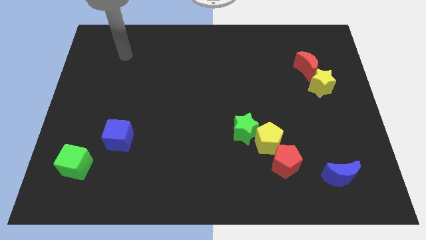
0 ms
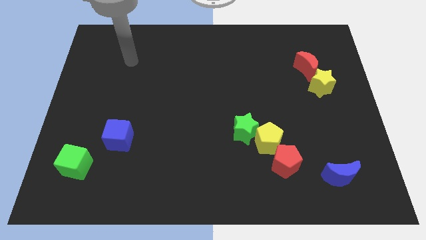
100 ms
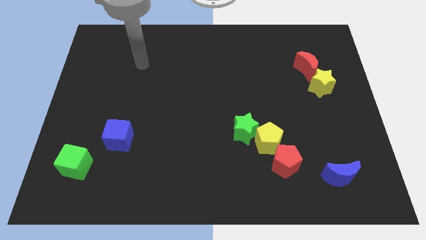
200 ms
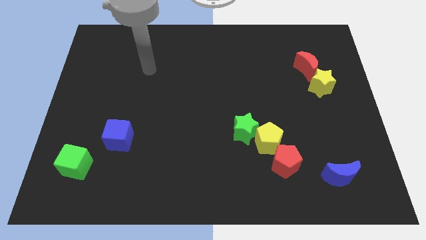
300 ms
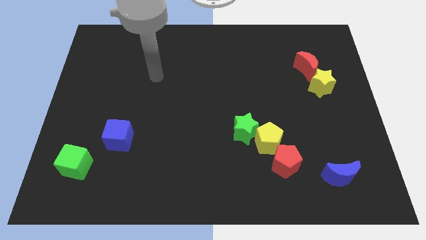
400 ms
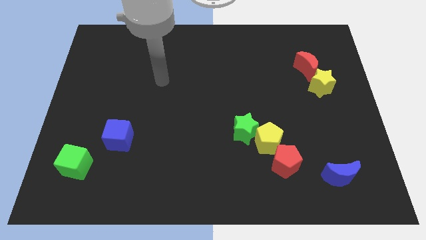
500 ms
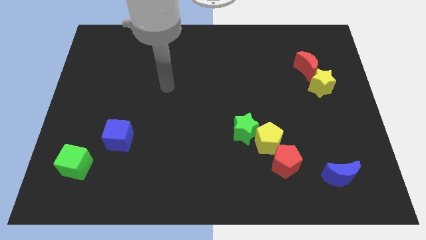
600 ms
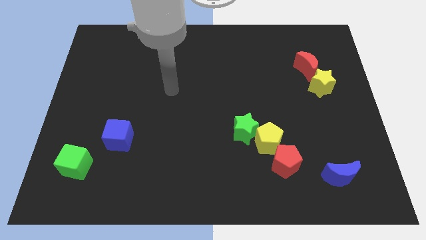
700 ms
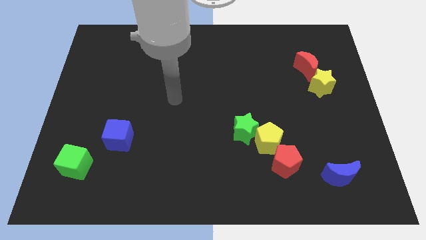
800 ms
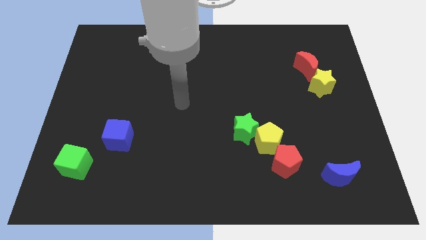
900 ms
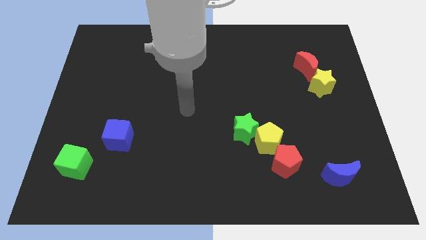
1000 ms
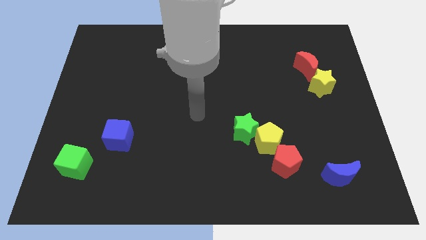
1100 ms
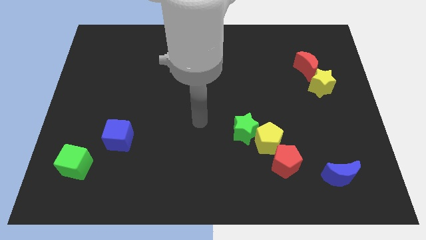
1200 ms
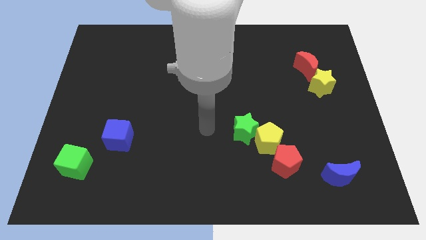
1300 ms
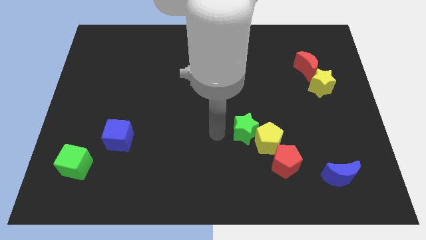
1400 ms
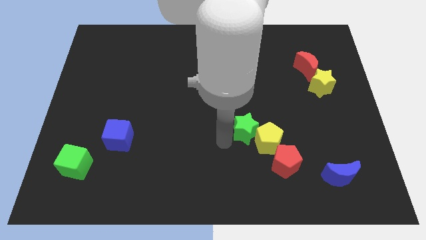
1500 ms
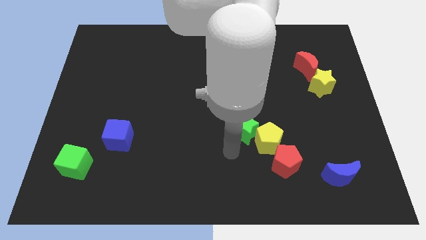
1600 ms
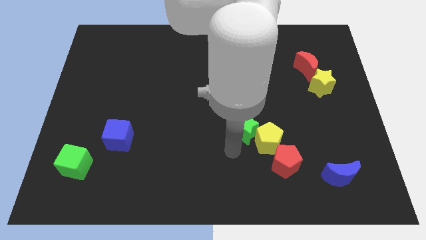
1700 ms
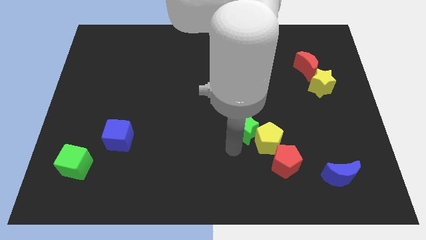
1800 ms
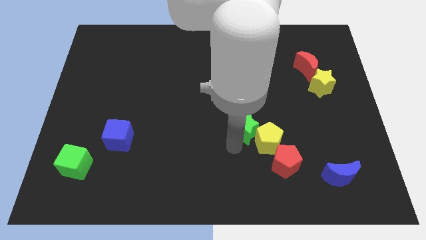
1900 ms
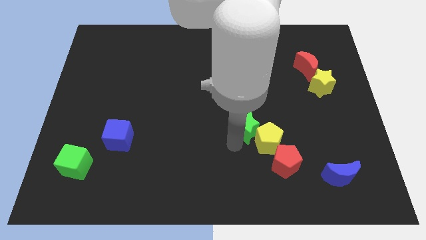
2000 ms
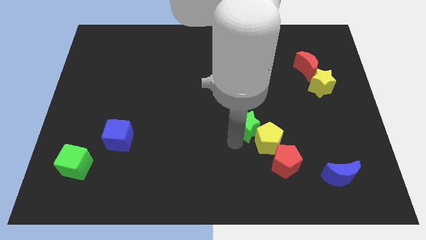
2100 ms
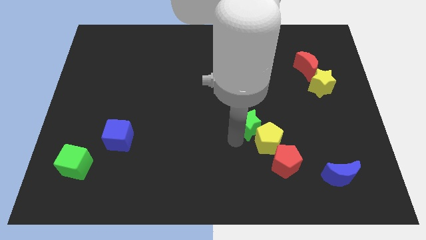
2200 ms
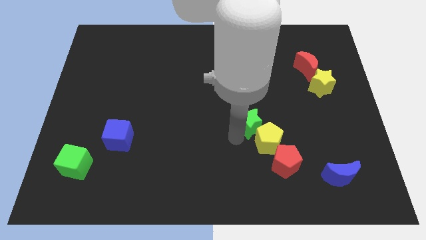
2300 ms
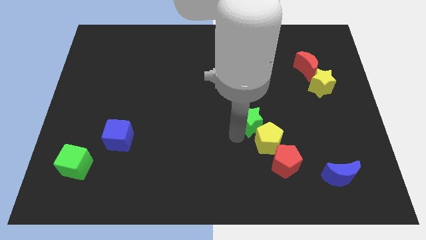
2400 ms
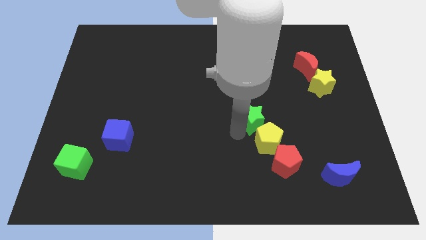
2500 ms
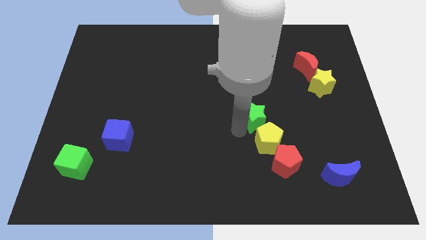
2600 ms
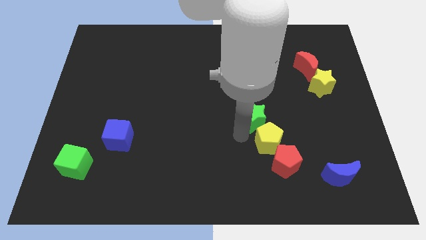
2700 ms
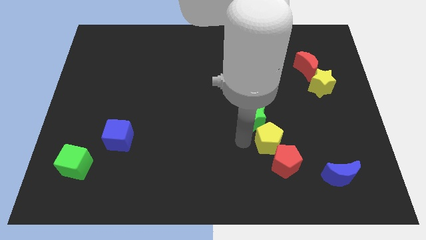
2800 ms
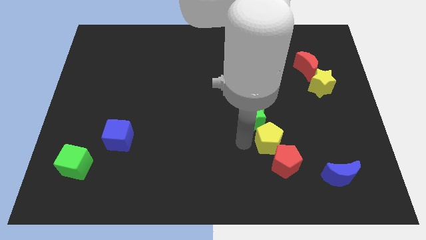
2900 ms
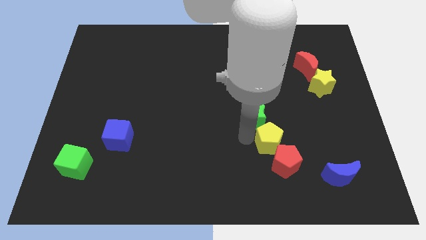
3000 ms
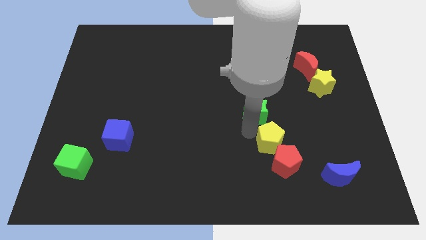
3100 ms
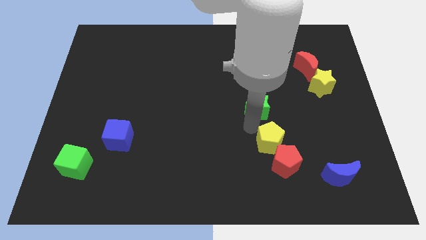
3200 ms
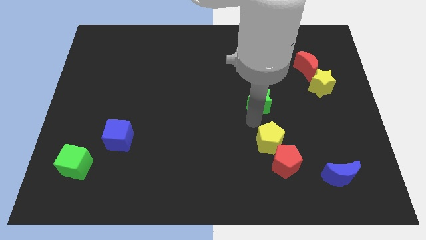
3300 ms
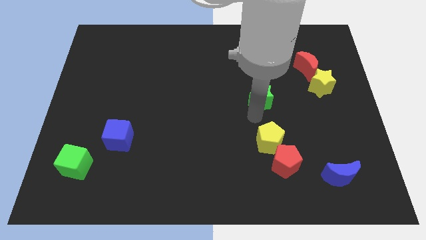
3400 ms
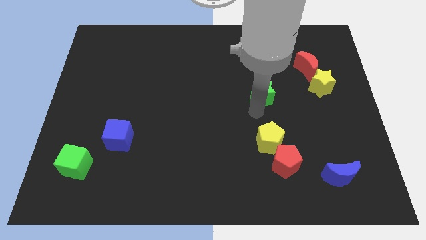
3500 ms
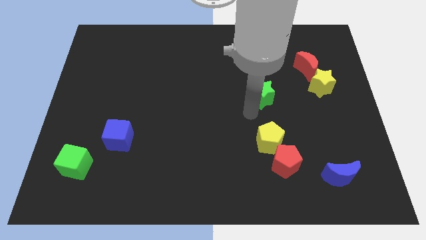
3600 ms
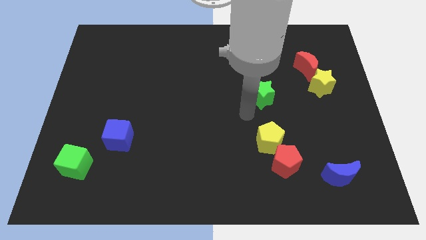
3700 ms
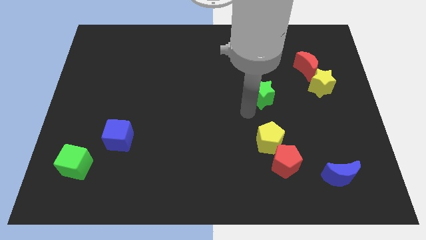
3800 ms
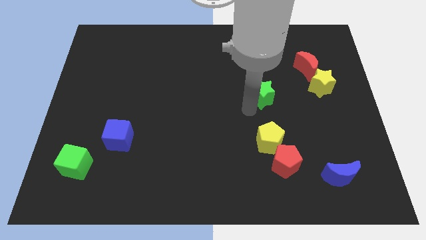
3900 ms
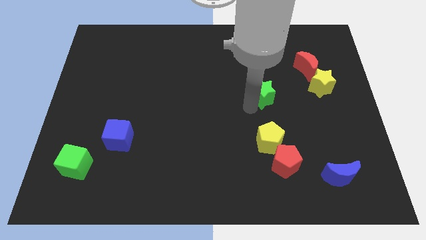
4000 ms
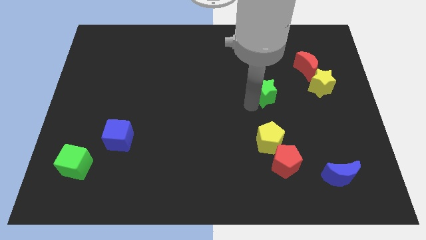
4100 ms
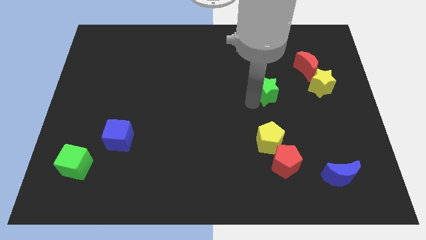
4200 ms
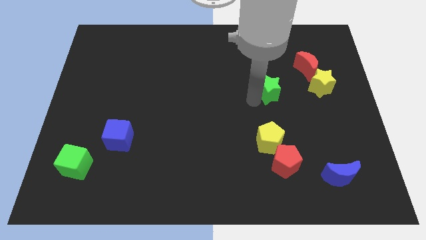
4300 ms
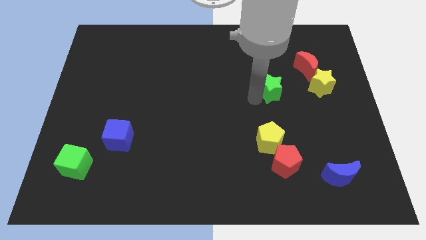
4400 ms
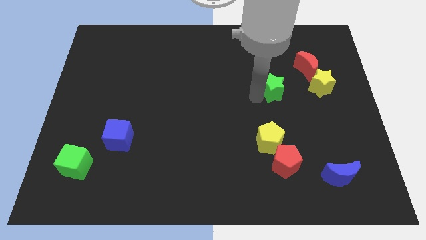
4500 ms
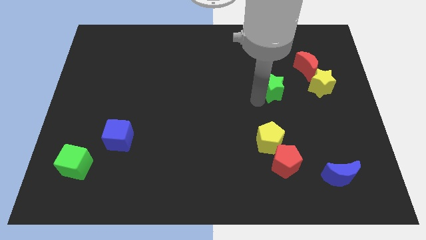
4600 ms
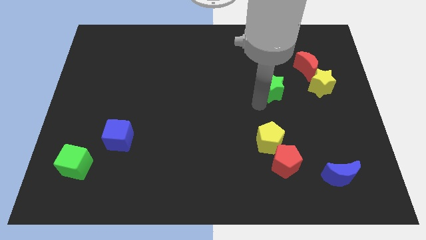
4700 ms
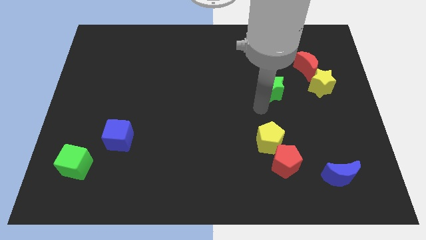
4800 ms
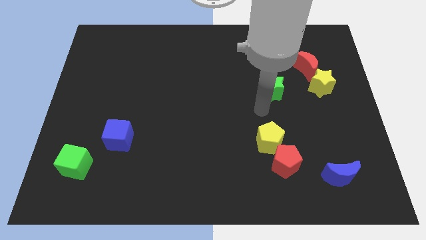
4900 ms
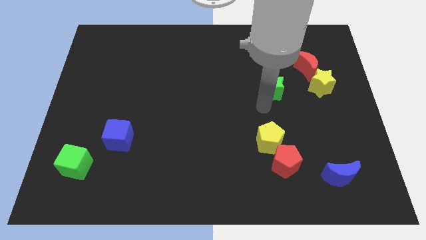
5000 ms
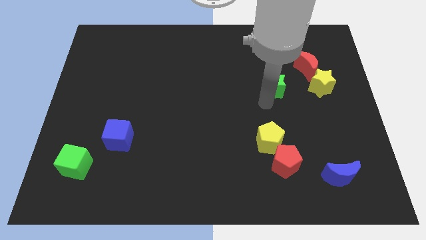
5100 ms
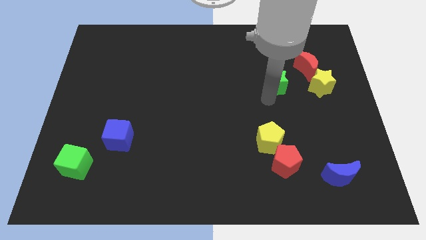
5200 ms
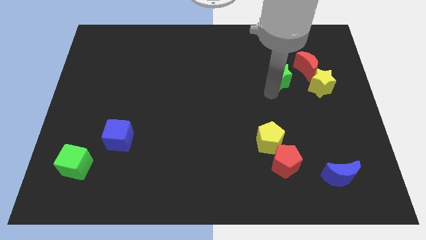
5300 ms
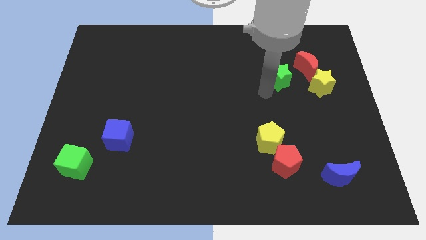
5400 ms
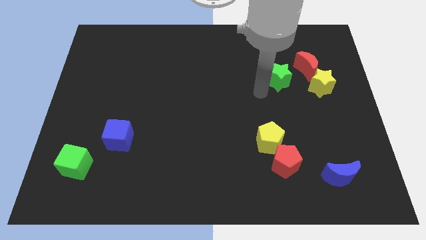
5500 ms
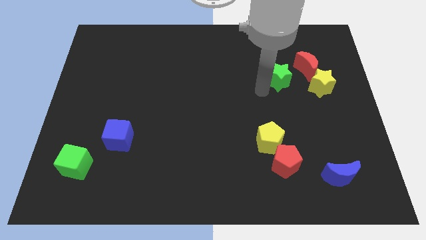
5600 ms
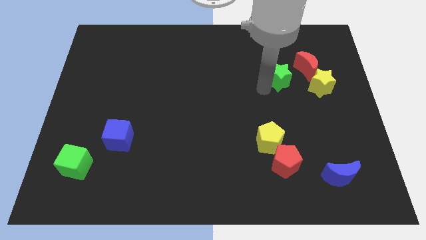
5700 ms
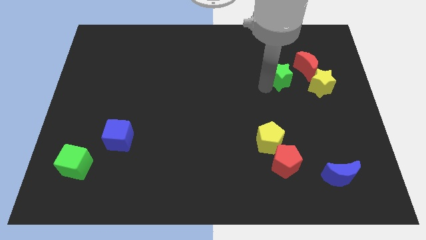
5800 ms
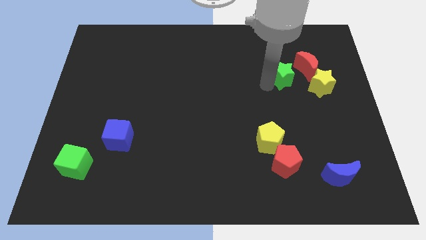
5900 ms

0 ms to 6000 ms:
put the green star diagonally up and to the left of the yellow star
